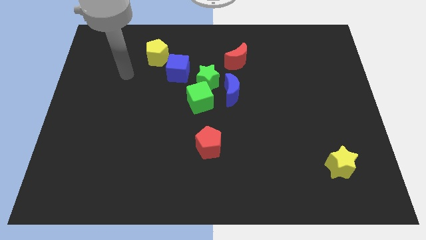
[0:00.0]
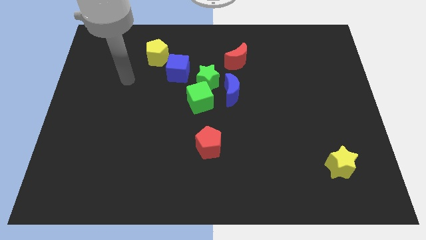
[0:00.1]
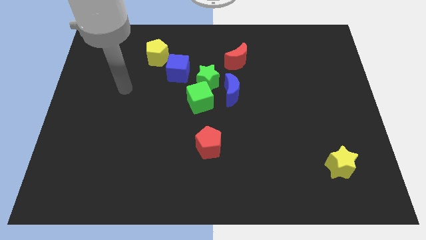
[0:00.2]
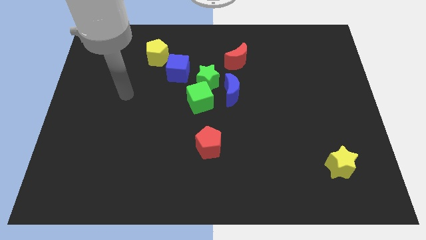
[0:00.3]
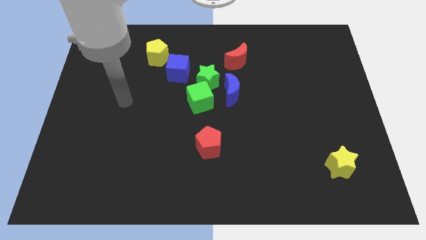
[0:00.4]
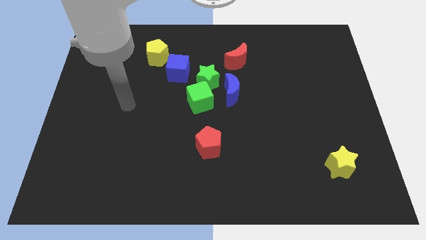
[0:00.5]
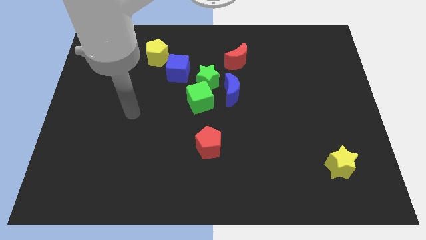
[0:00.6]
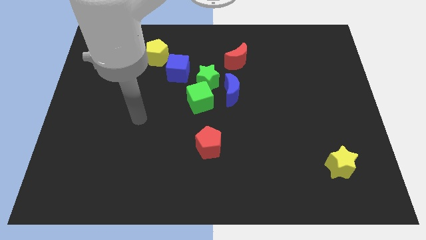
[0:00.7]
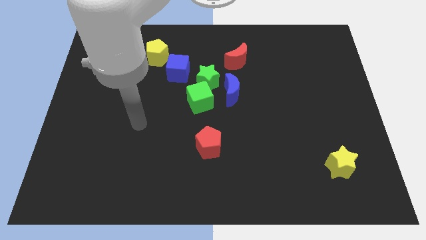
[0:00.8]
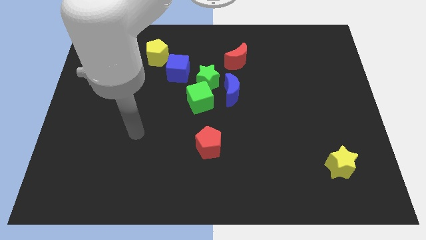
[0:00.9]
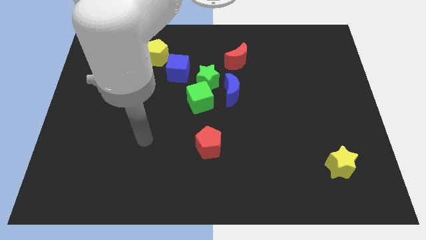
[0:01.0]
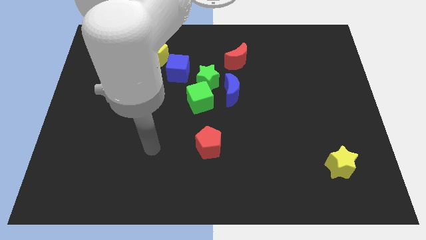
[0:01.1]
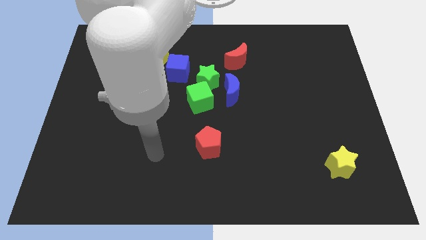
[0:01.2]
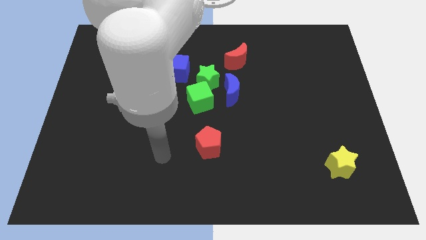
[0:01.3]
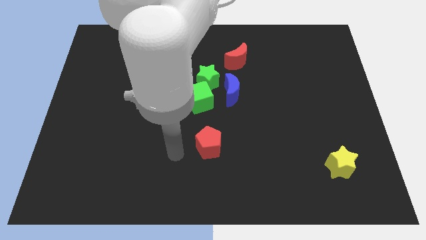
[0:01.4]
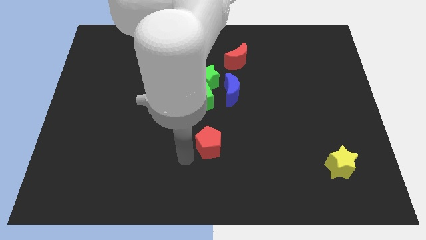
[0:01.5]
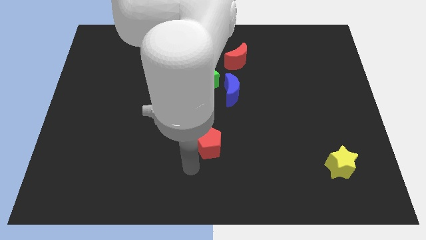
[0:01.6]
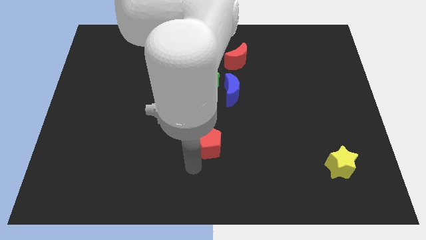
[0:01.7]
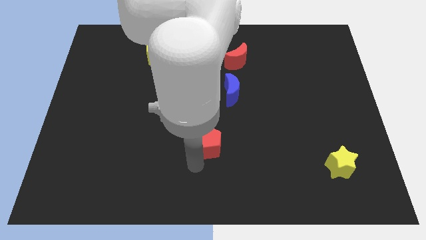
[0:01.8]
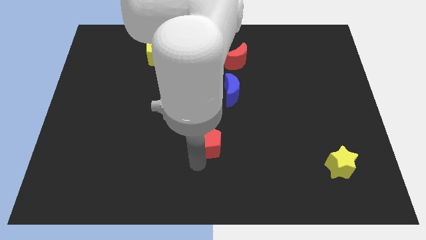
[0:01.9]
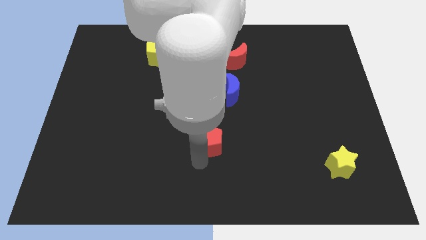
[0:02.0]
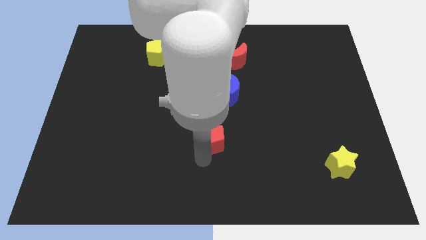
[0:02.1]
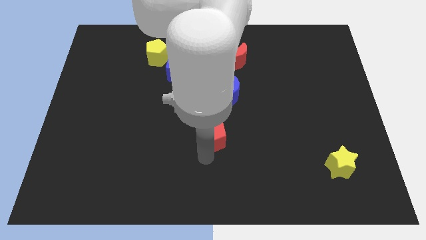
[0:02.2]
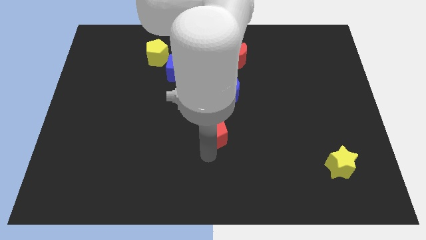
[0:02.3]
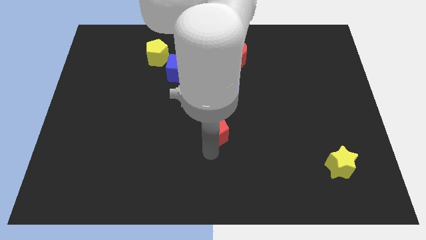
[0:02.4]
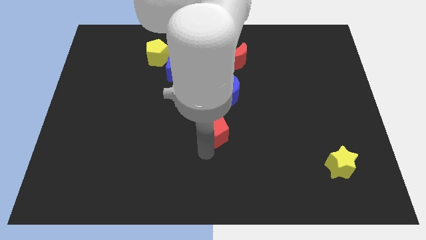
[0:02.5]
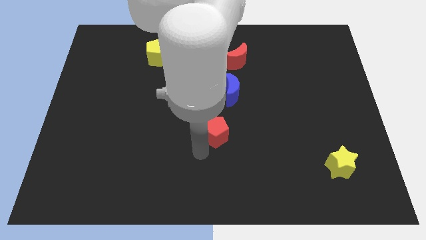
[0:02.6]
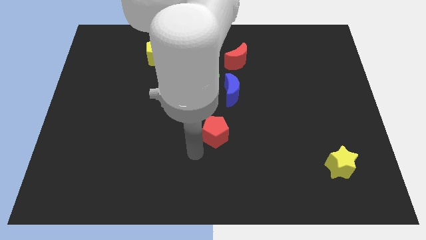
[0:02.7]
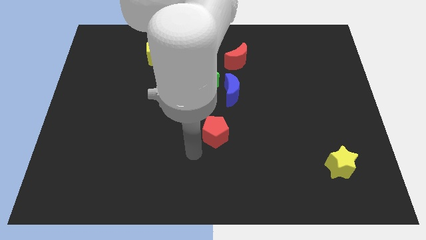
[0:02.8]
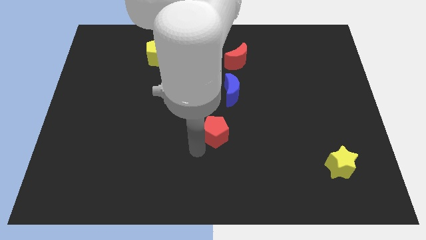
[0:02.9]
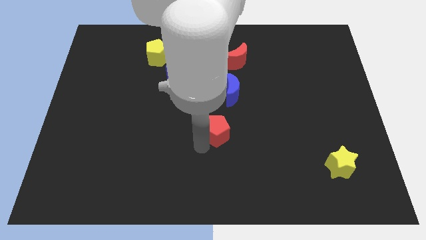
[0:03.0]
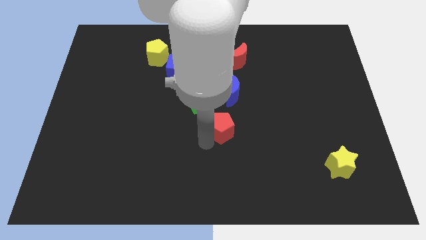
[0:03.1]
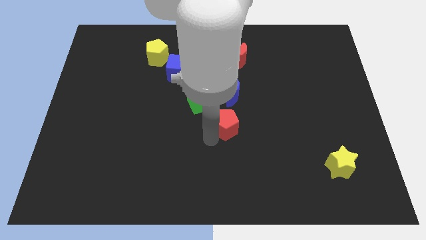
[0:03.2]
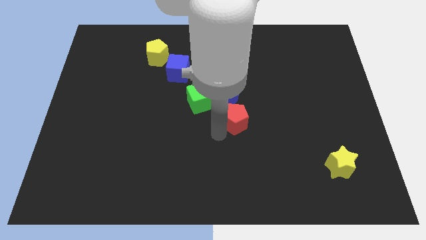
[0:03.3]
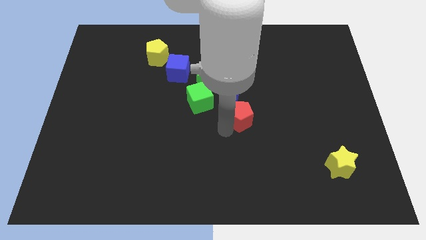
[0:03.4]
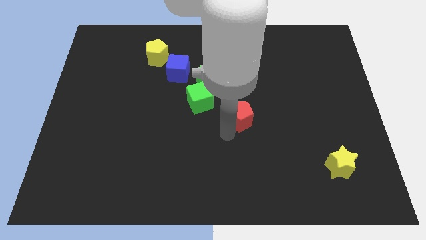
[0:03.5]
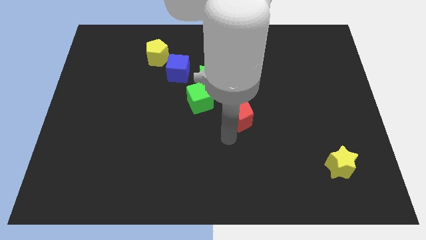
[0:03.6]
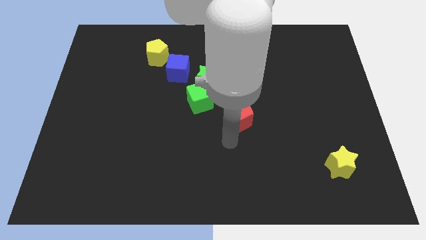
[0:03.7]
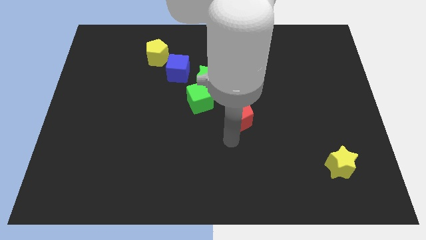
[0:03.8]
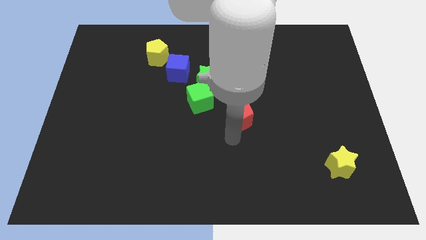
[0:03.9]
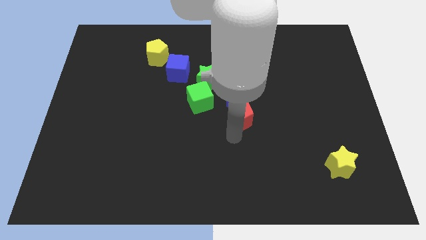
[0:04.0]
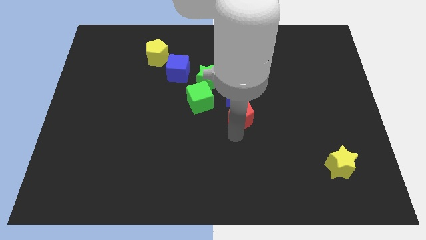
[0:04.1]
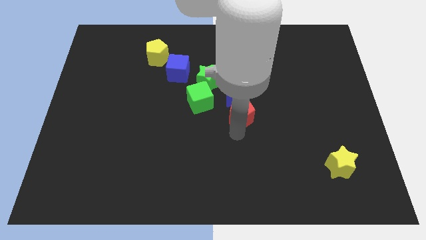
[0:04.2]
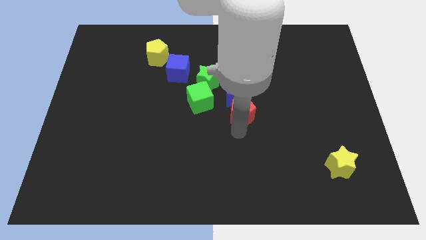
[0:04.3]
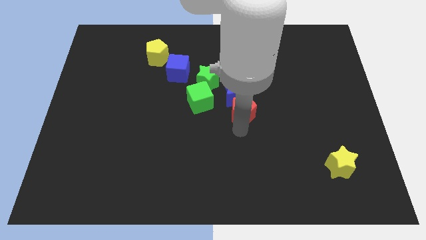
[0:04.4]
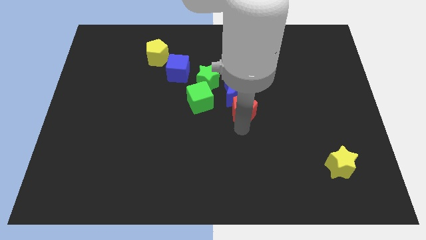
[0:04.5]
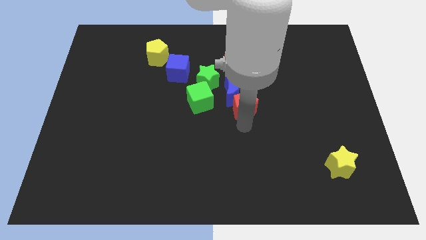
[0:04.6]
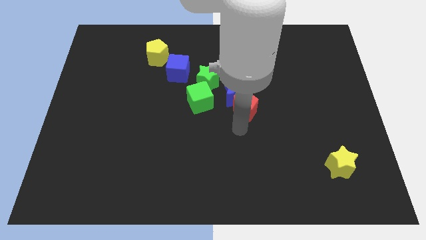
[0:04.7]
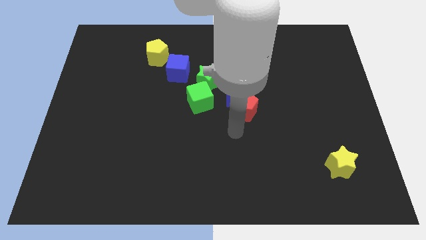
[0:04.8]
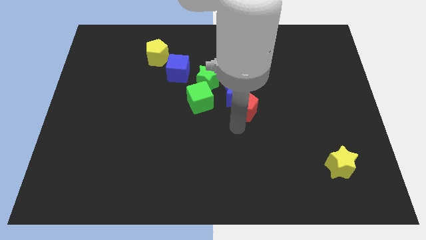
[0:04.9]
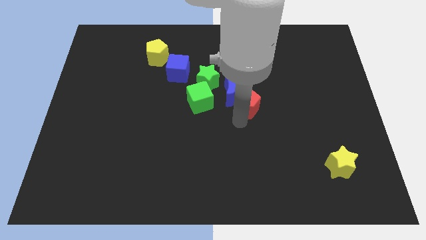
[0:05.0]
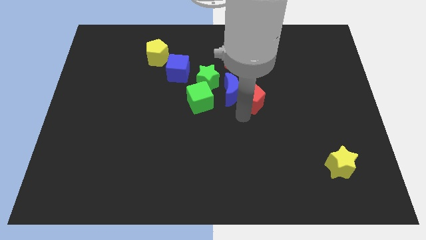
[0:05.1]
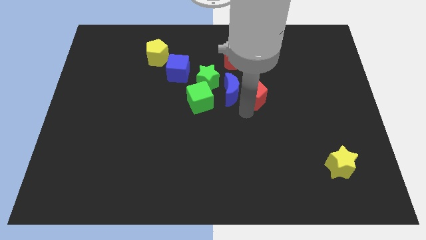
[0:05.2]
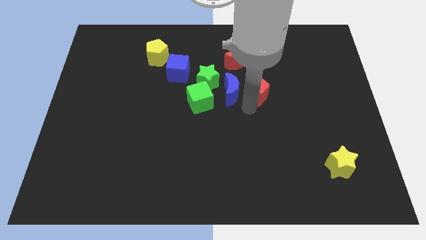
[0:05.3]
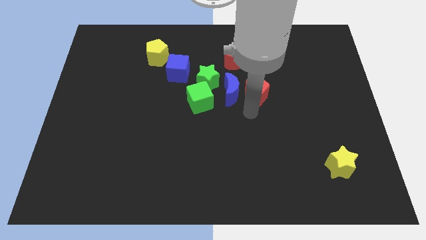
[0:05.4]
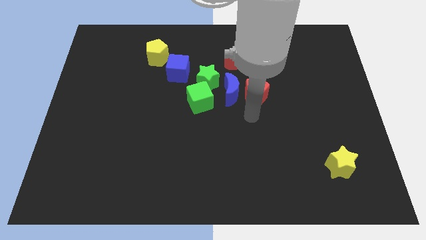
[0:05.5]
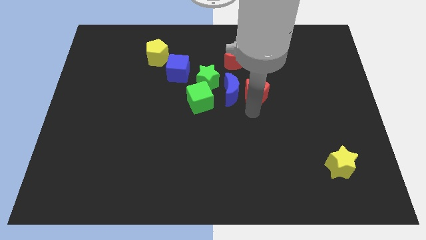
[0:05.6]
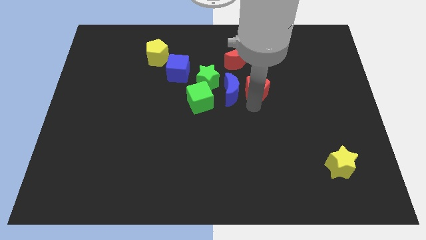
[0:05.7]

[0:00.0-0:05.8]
push the red pentagon diagonally down and to the right of the red moon

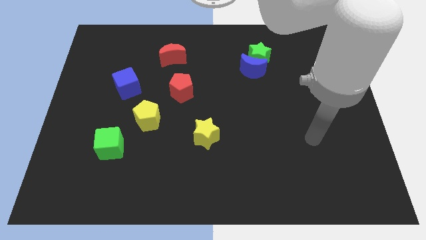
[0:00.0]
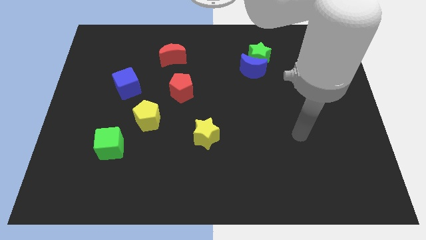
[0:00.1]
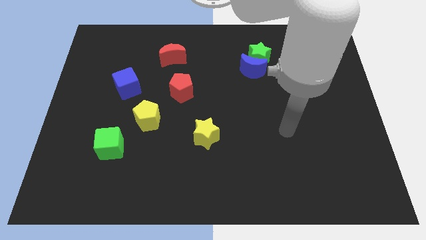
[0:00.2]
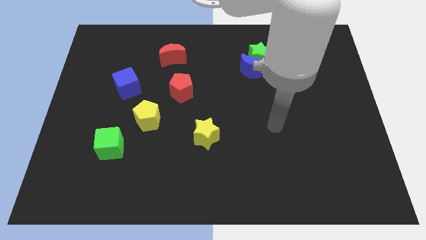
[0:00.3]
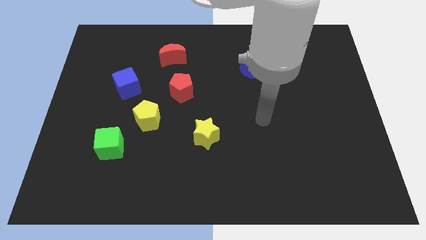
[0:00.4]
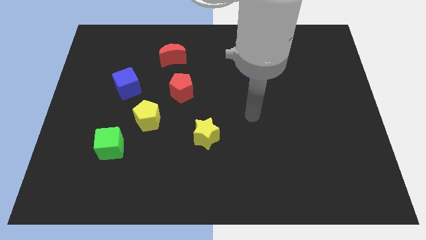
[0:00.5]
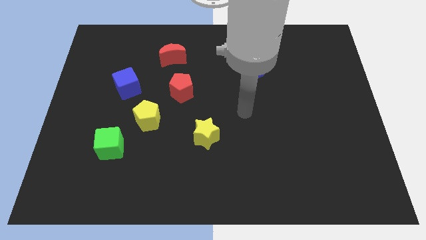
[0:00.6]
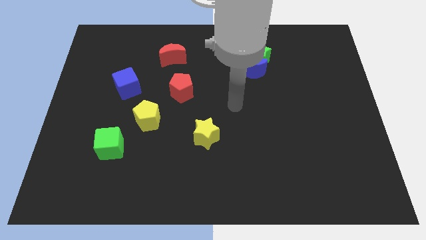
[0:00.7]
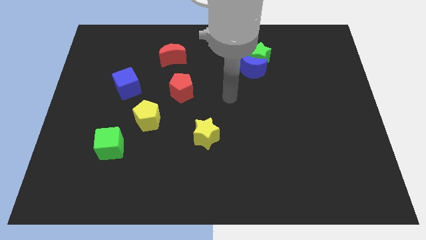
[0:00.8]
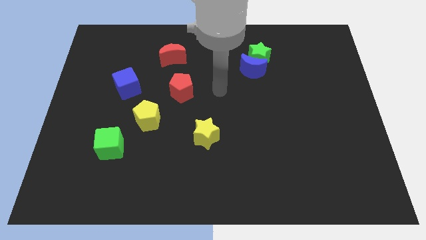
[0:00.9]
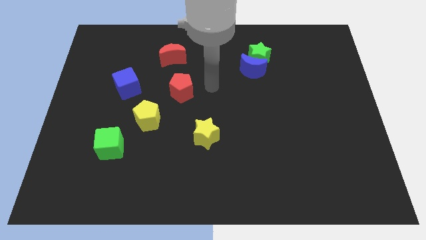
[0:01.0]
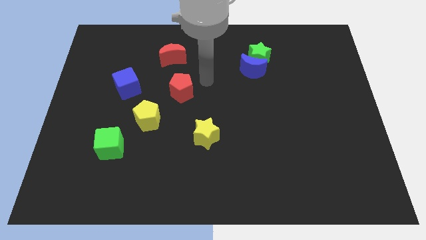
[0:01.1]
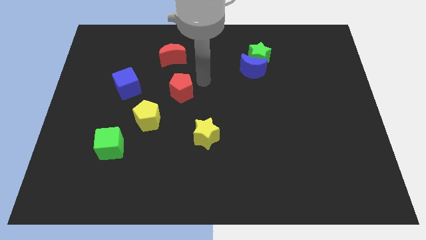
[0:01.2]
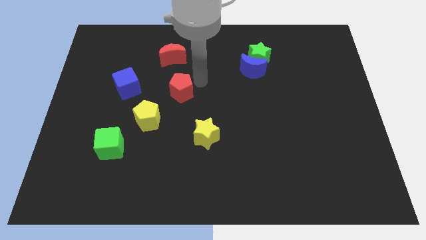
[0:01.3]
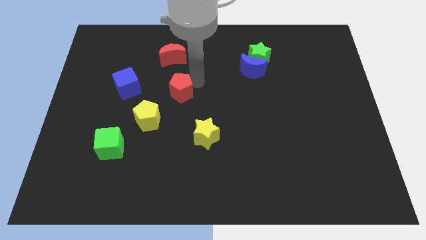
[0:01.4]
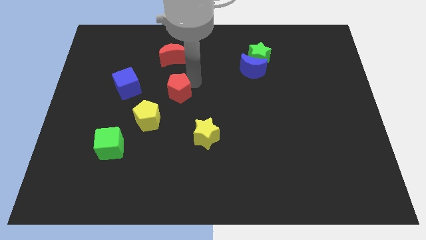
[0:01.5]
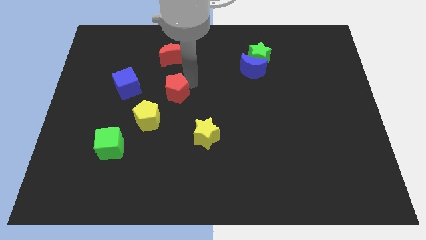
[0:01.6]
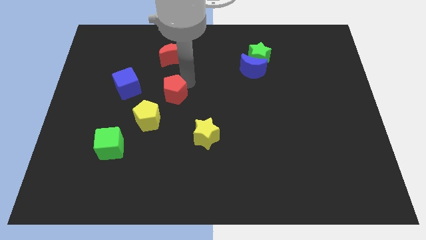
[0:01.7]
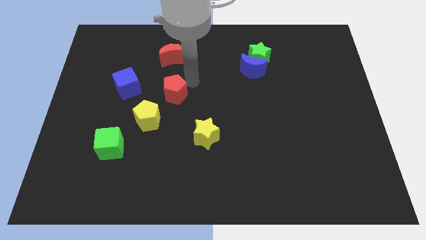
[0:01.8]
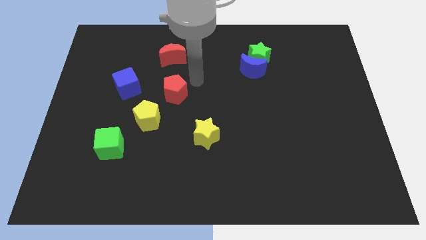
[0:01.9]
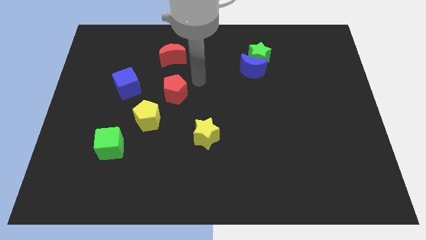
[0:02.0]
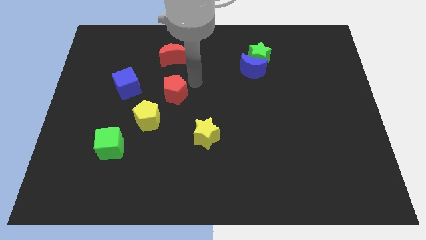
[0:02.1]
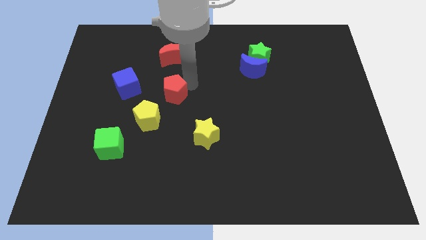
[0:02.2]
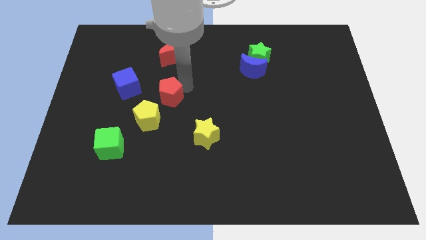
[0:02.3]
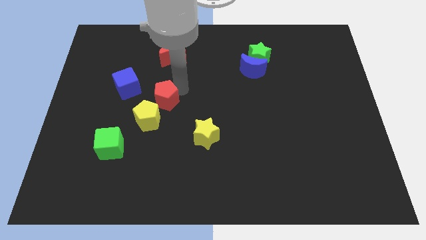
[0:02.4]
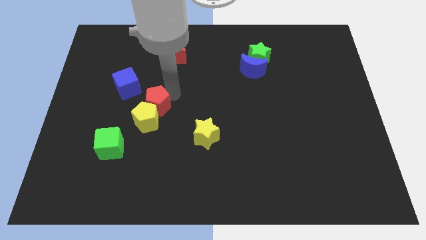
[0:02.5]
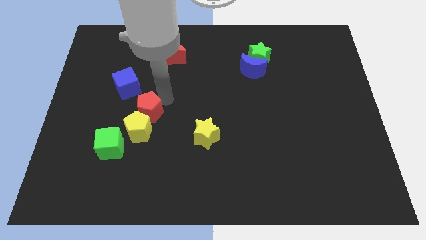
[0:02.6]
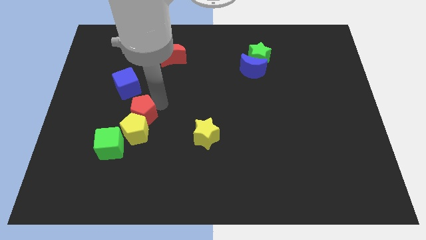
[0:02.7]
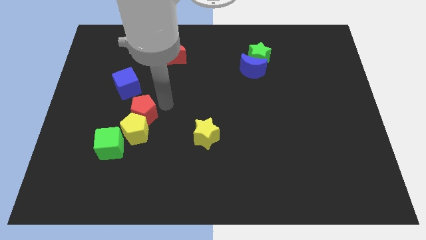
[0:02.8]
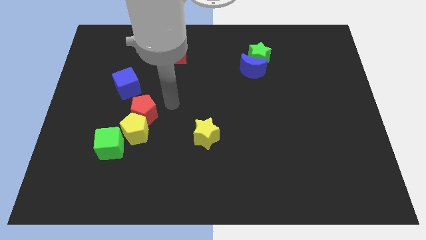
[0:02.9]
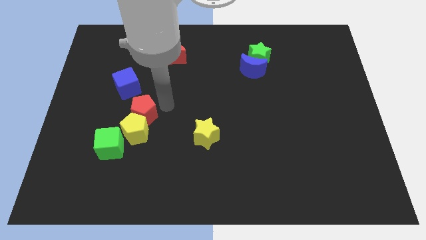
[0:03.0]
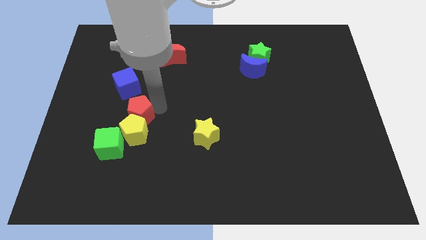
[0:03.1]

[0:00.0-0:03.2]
push the red pentagon to the bottom of the blue cube
